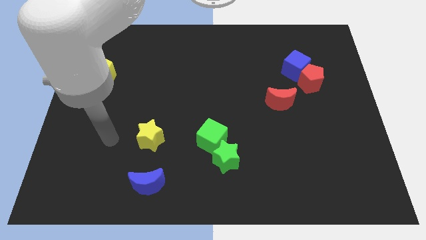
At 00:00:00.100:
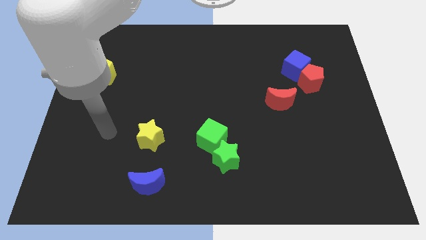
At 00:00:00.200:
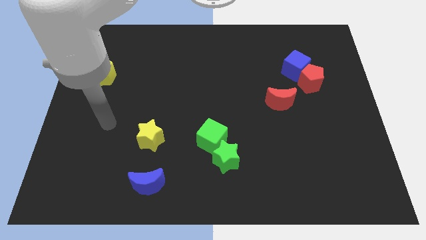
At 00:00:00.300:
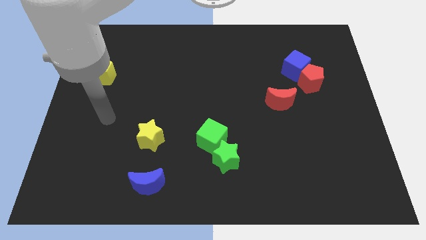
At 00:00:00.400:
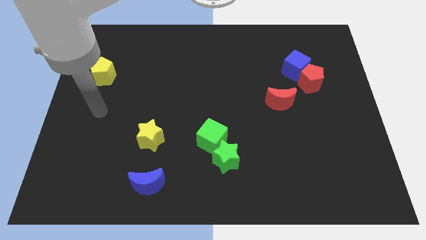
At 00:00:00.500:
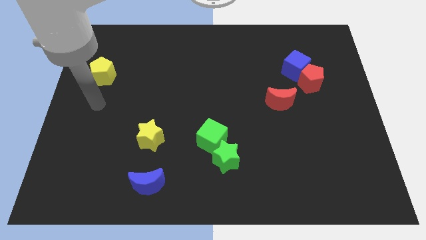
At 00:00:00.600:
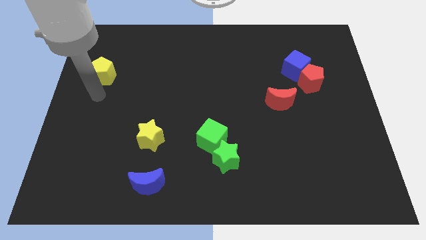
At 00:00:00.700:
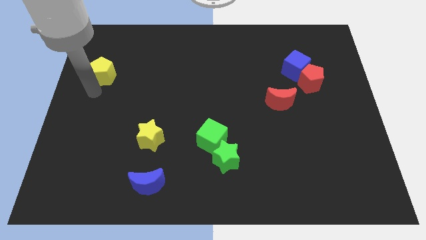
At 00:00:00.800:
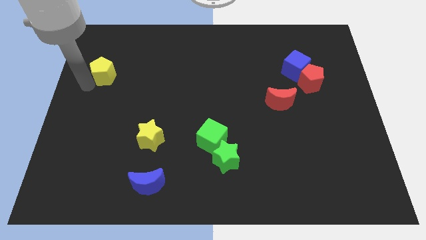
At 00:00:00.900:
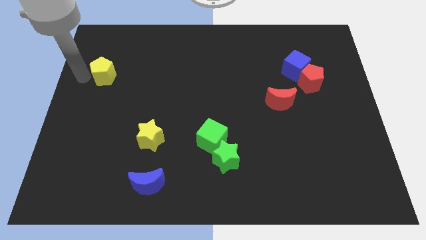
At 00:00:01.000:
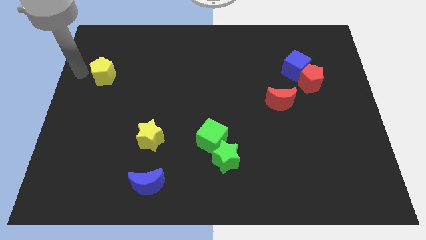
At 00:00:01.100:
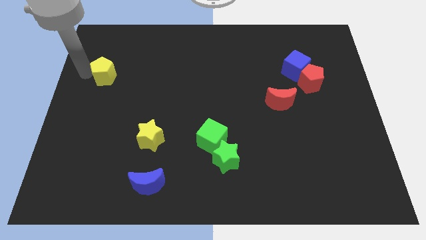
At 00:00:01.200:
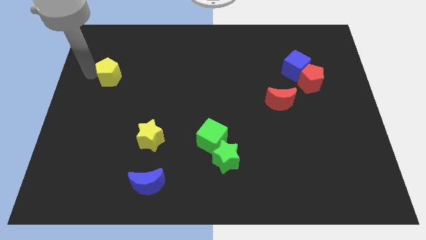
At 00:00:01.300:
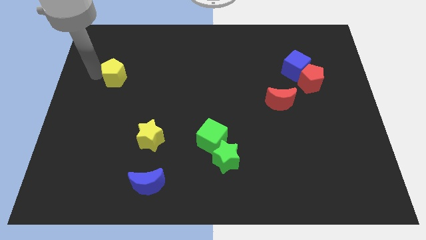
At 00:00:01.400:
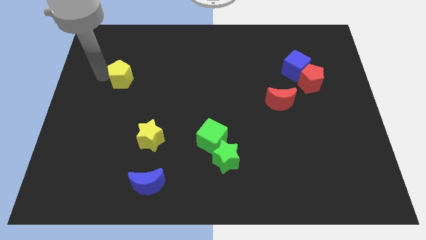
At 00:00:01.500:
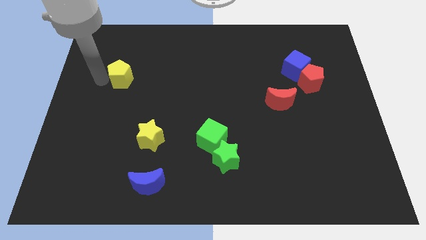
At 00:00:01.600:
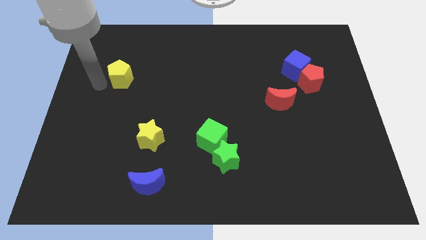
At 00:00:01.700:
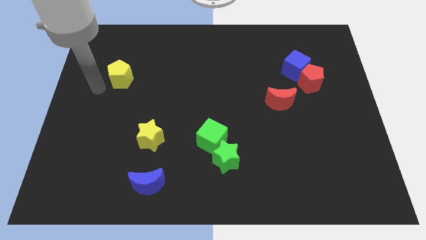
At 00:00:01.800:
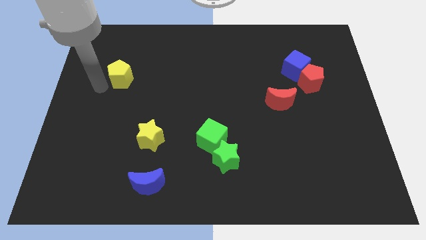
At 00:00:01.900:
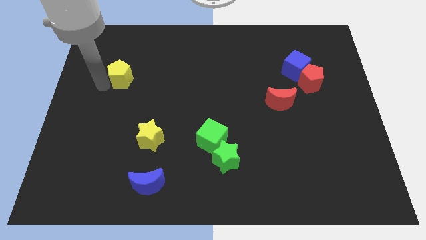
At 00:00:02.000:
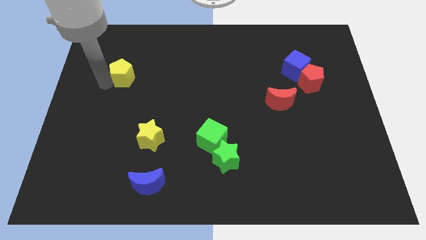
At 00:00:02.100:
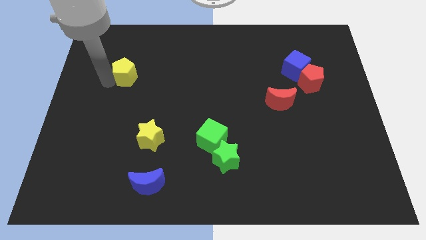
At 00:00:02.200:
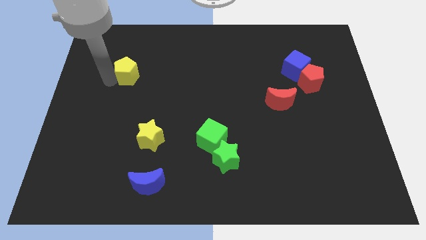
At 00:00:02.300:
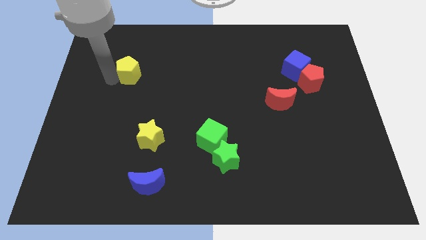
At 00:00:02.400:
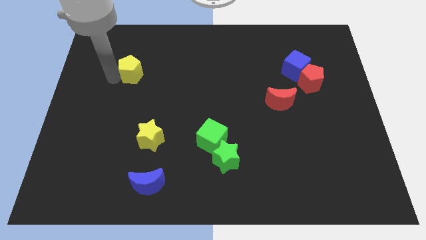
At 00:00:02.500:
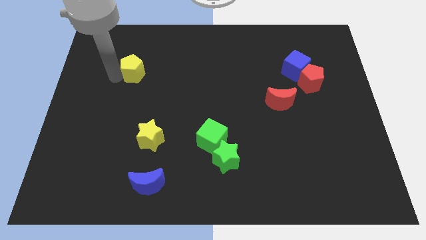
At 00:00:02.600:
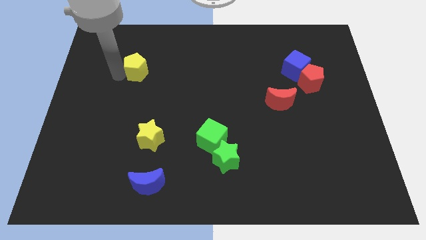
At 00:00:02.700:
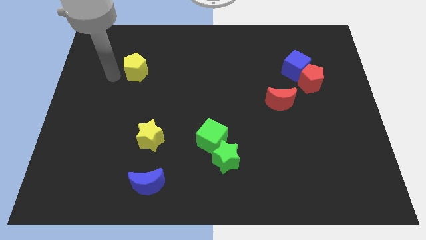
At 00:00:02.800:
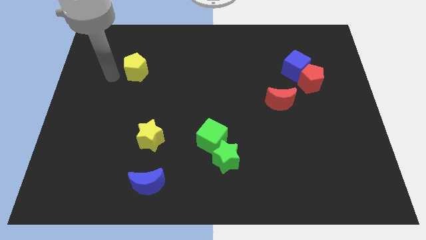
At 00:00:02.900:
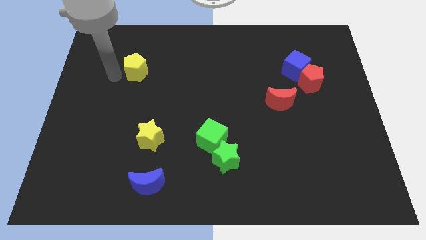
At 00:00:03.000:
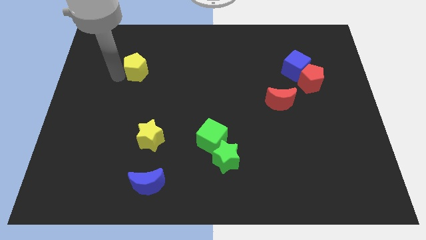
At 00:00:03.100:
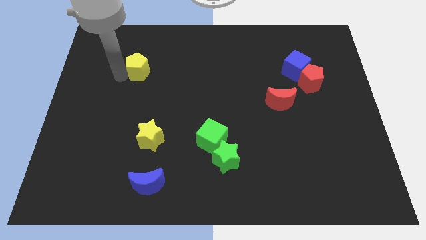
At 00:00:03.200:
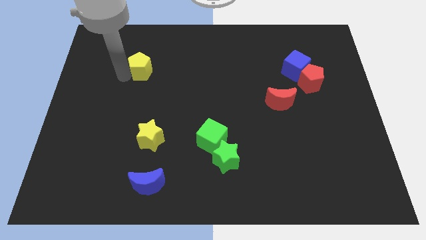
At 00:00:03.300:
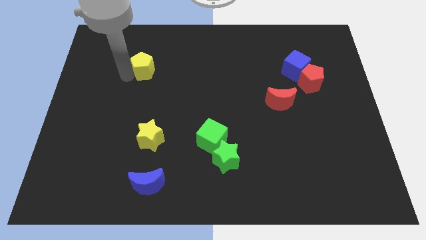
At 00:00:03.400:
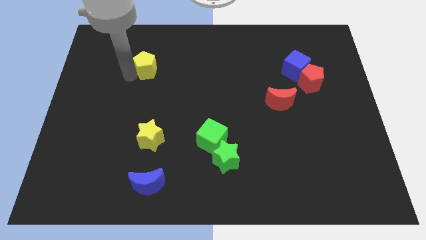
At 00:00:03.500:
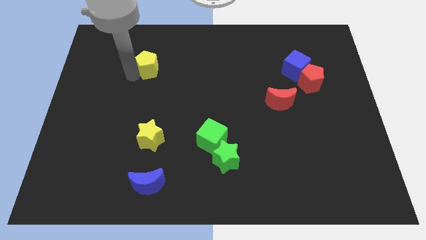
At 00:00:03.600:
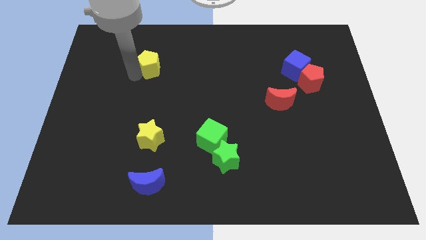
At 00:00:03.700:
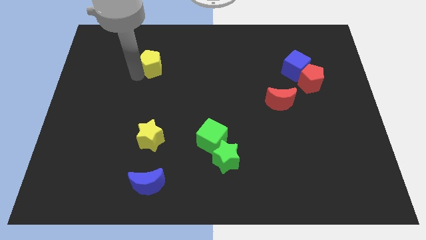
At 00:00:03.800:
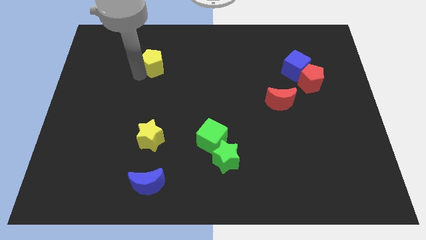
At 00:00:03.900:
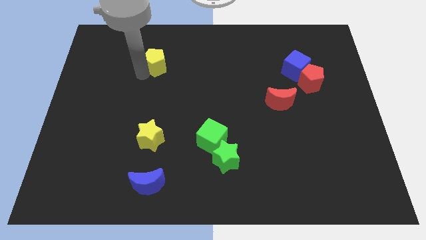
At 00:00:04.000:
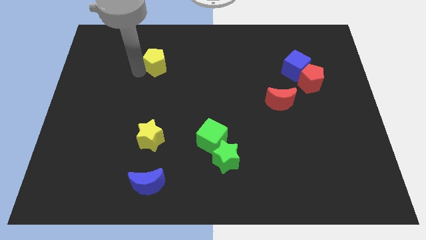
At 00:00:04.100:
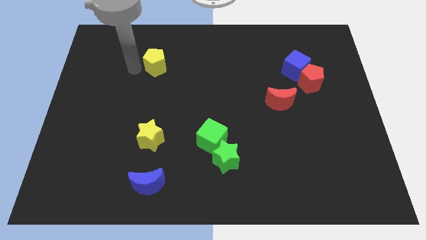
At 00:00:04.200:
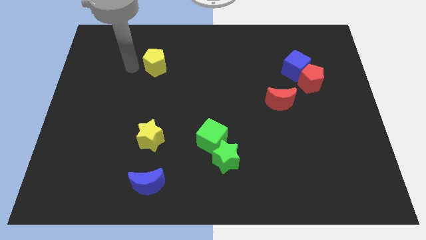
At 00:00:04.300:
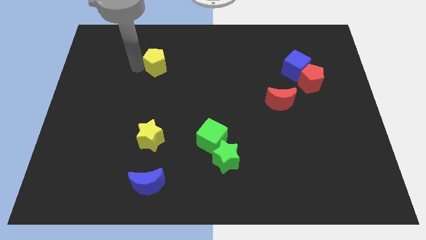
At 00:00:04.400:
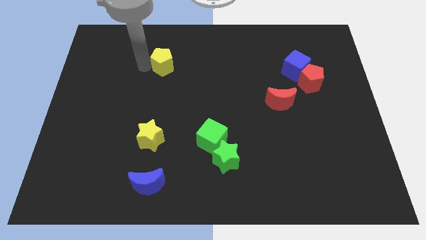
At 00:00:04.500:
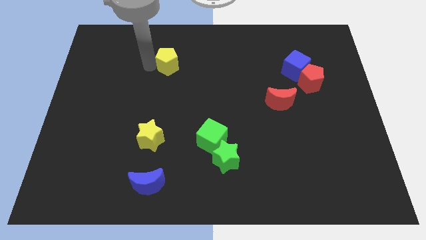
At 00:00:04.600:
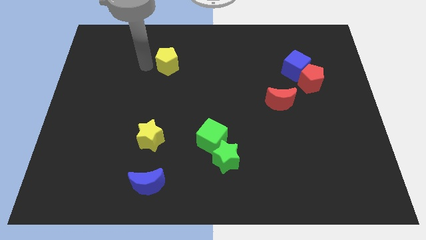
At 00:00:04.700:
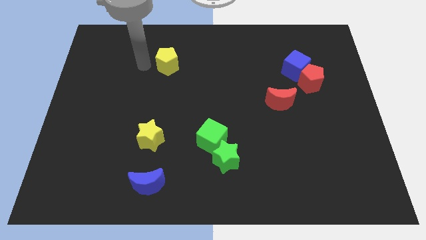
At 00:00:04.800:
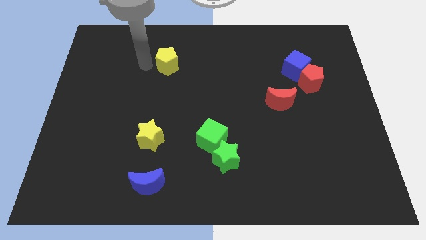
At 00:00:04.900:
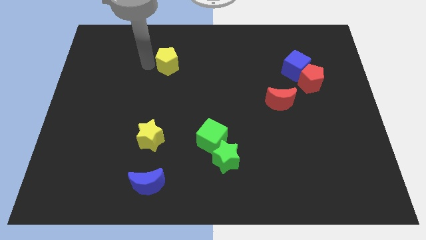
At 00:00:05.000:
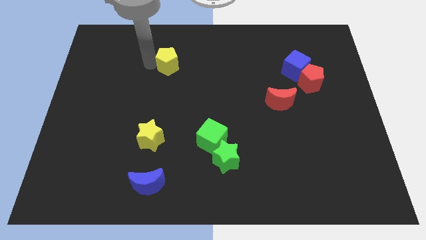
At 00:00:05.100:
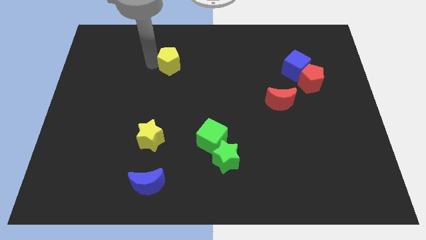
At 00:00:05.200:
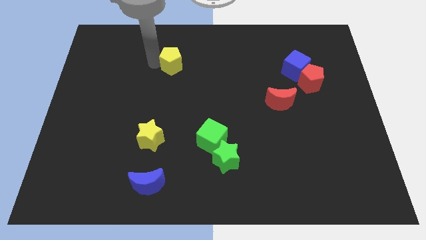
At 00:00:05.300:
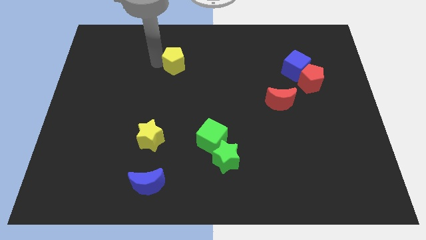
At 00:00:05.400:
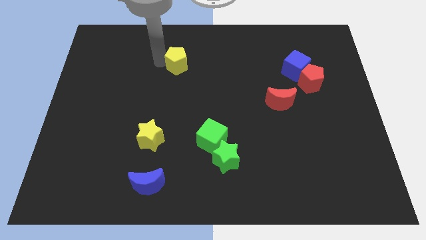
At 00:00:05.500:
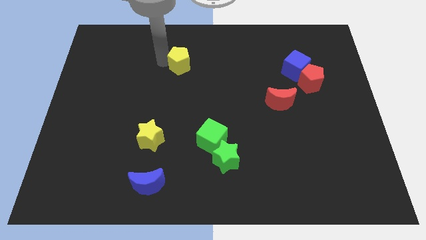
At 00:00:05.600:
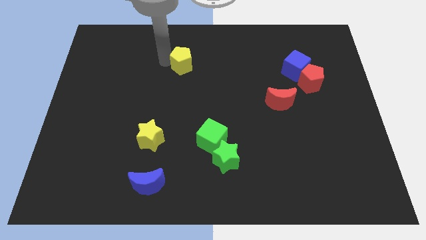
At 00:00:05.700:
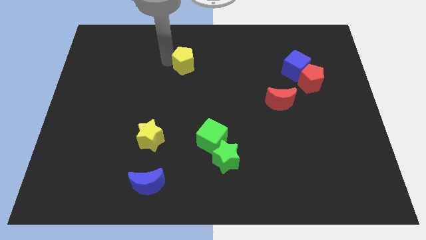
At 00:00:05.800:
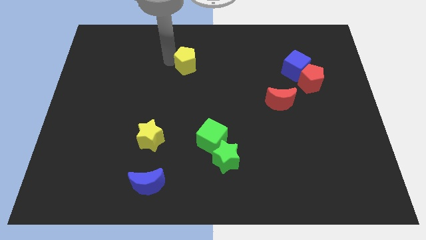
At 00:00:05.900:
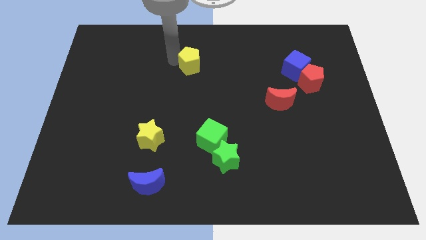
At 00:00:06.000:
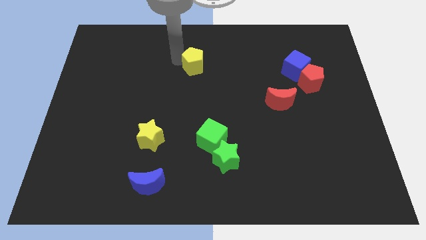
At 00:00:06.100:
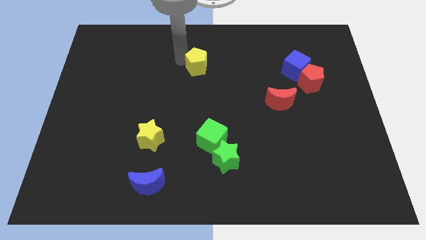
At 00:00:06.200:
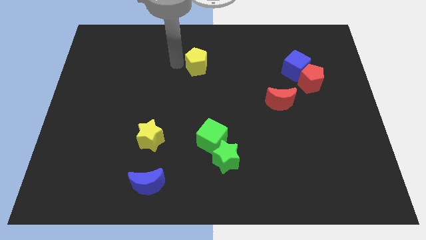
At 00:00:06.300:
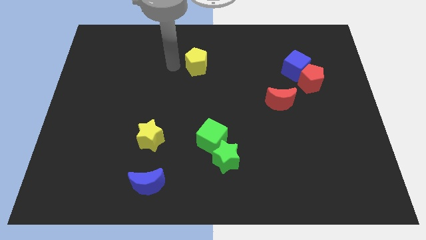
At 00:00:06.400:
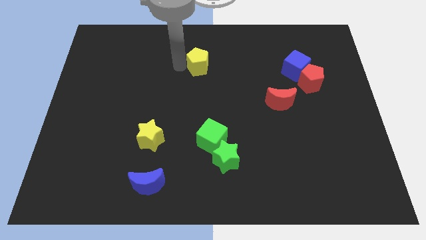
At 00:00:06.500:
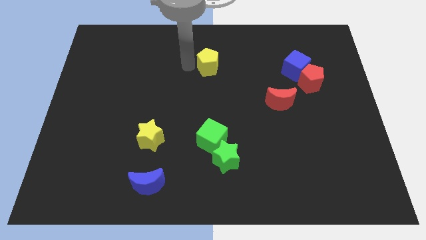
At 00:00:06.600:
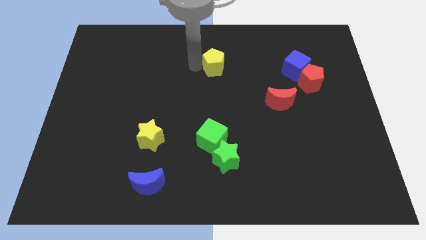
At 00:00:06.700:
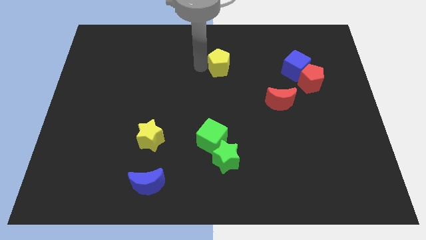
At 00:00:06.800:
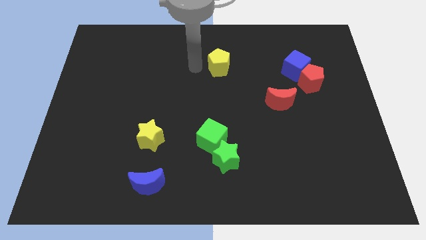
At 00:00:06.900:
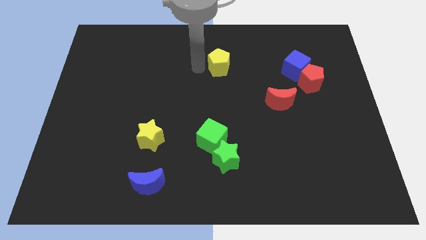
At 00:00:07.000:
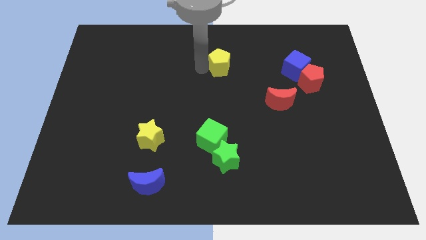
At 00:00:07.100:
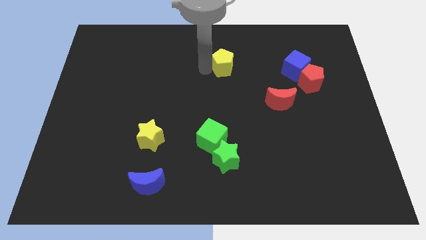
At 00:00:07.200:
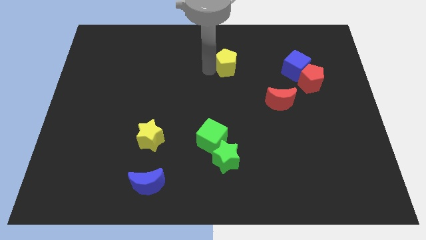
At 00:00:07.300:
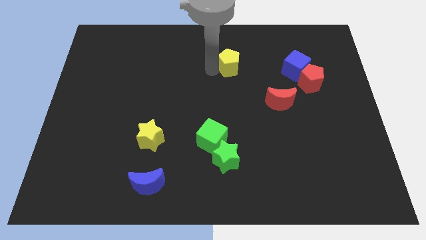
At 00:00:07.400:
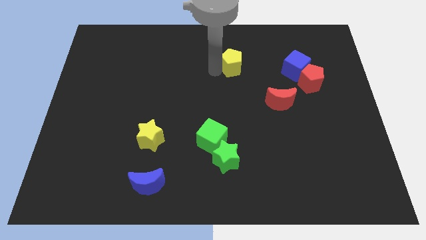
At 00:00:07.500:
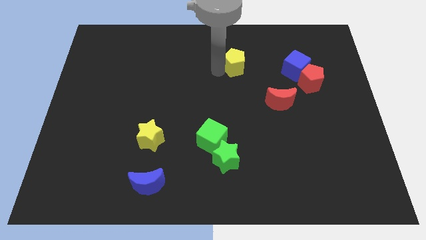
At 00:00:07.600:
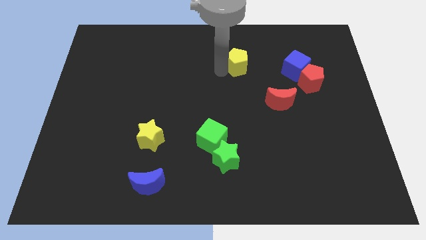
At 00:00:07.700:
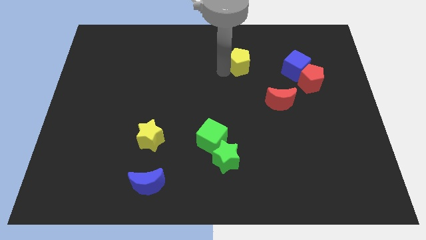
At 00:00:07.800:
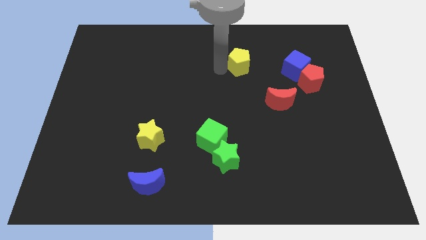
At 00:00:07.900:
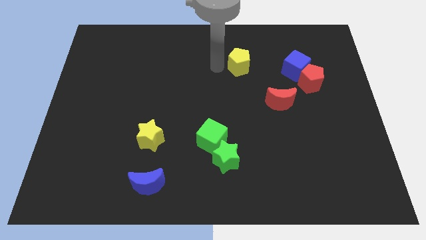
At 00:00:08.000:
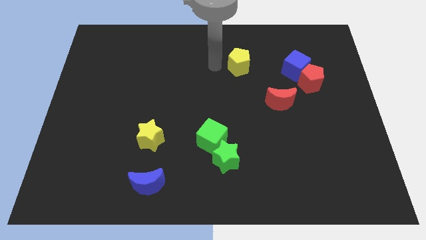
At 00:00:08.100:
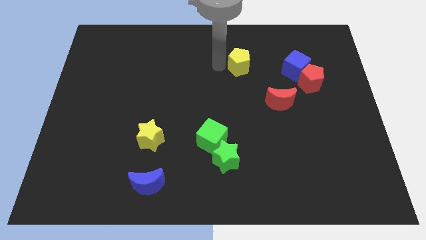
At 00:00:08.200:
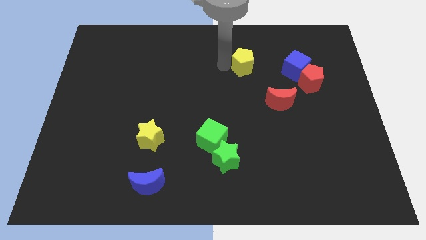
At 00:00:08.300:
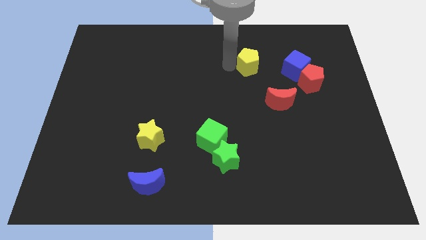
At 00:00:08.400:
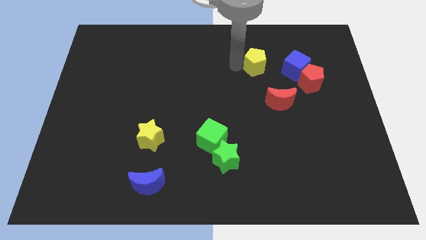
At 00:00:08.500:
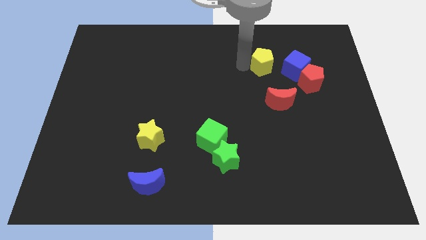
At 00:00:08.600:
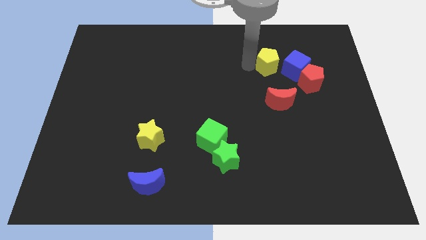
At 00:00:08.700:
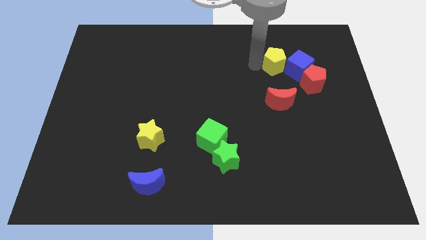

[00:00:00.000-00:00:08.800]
push the yellow pentagon towards the blue cube
